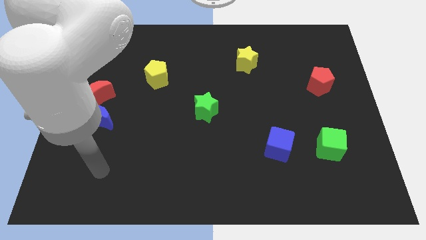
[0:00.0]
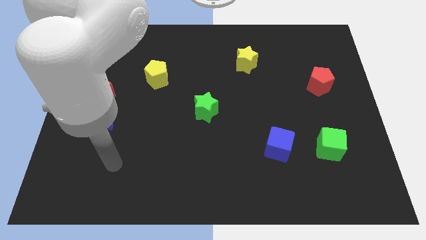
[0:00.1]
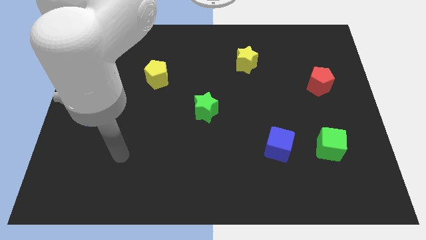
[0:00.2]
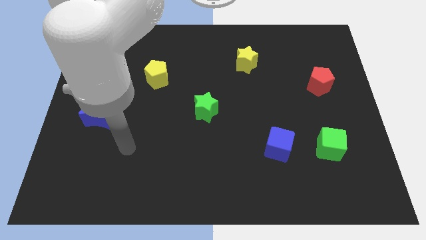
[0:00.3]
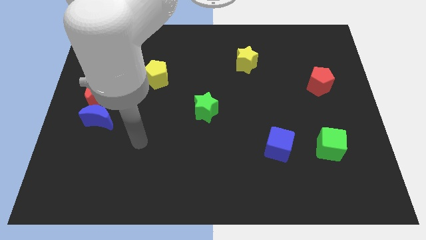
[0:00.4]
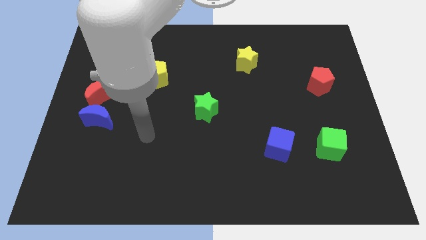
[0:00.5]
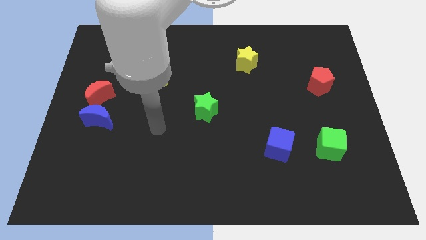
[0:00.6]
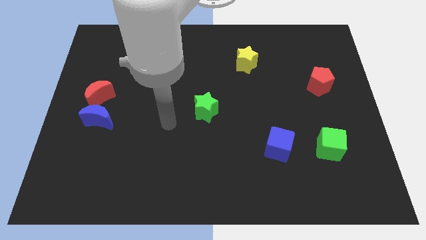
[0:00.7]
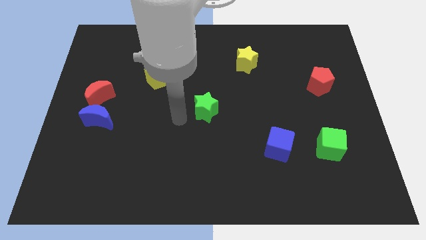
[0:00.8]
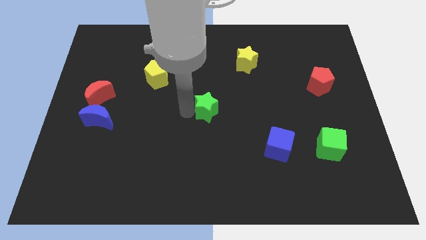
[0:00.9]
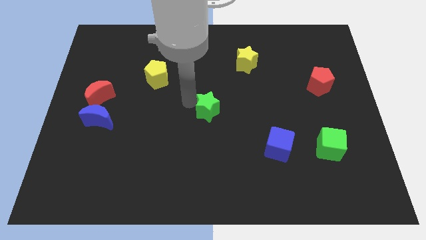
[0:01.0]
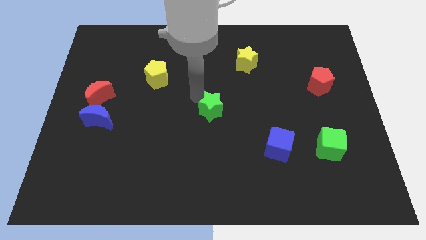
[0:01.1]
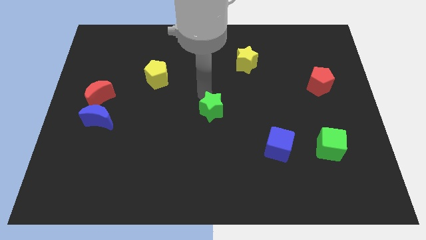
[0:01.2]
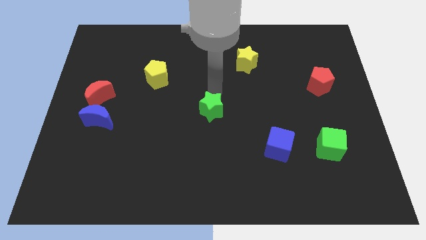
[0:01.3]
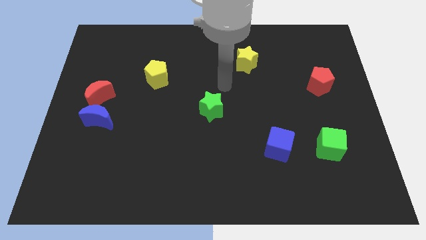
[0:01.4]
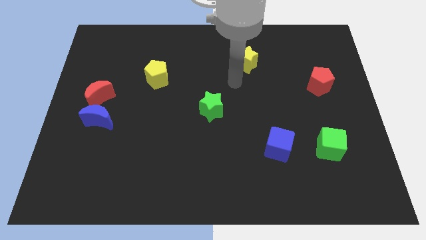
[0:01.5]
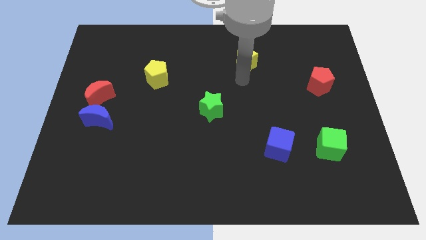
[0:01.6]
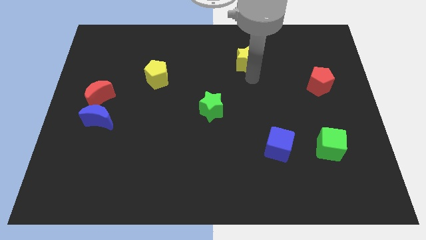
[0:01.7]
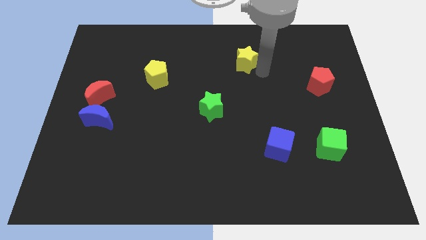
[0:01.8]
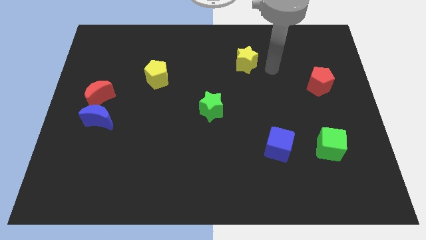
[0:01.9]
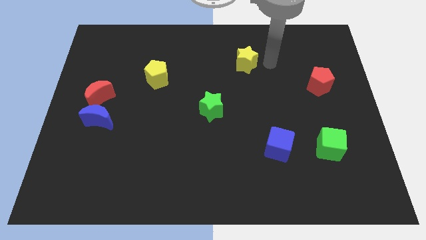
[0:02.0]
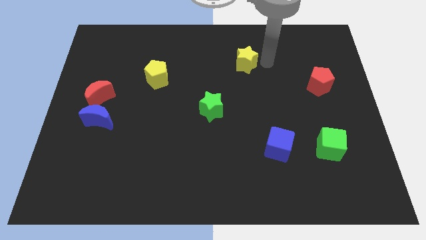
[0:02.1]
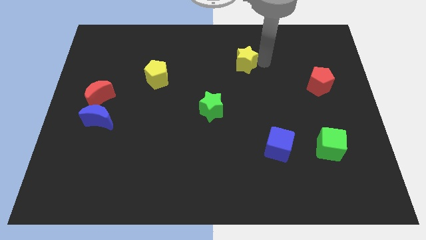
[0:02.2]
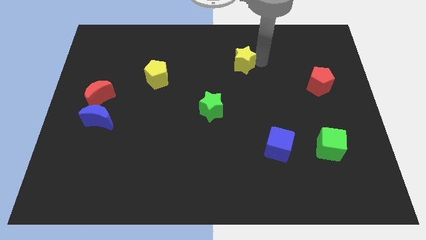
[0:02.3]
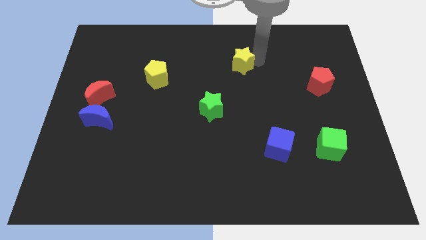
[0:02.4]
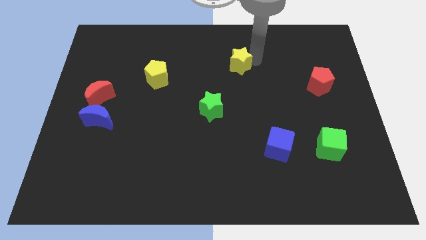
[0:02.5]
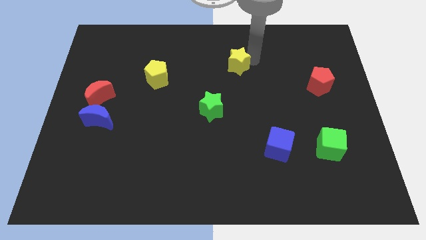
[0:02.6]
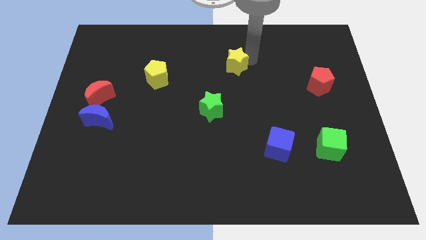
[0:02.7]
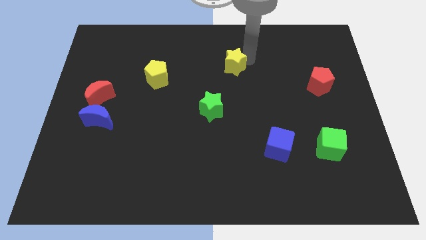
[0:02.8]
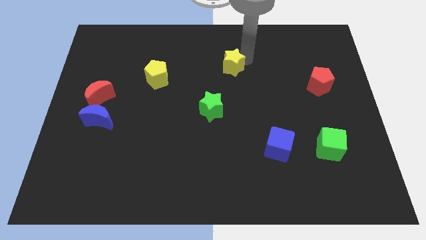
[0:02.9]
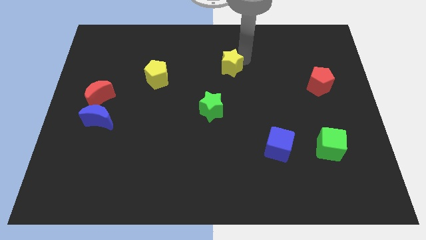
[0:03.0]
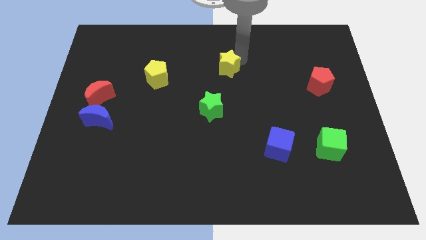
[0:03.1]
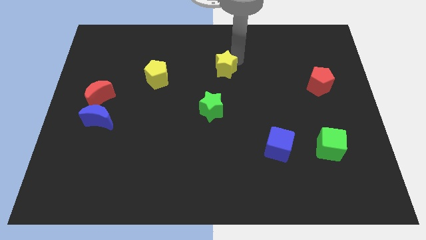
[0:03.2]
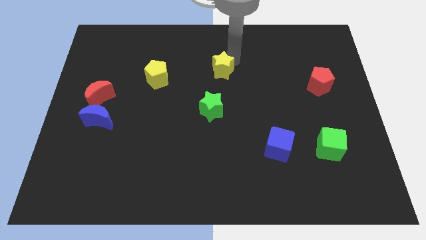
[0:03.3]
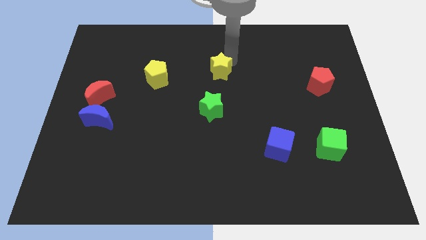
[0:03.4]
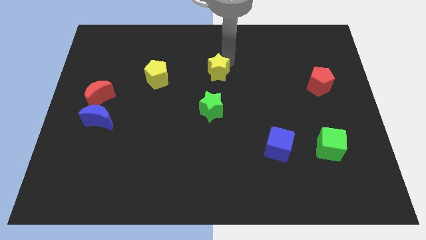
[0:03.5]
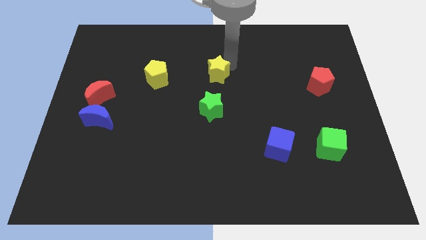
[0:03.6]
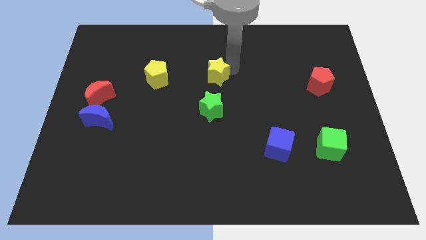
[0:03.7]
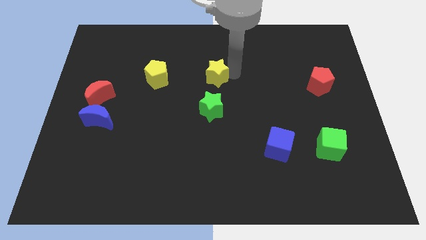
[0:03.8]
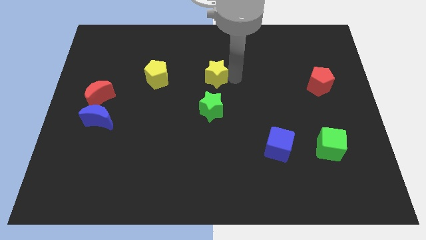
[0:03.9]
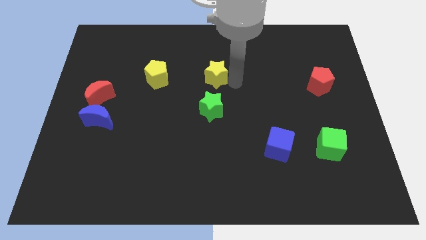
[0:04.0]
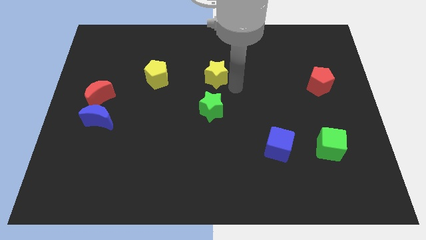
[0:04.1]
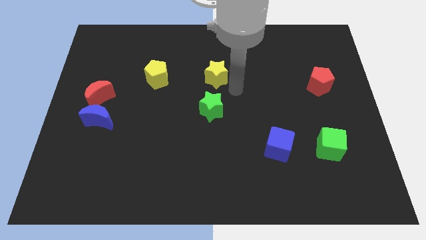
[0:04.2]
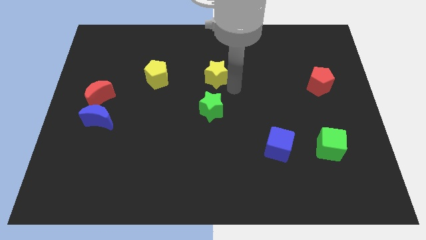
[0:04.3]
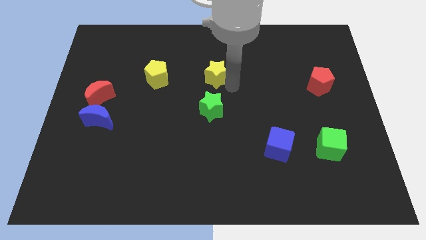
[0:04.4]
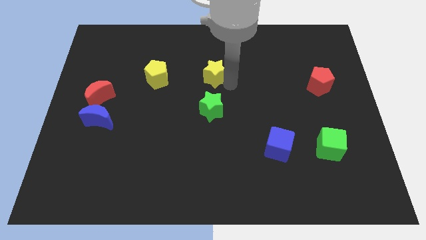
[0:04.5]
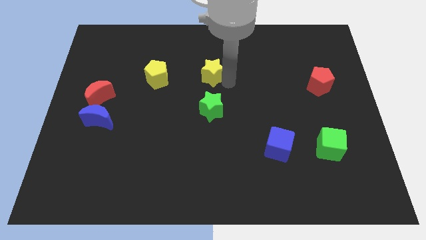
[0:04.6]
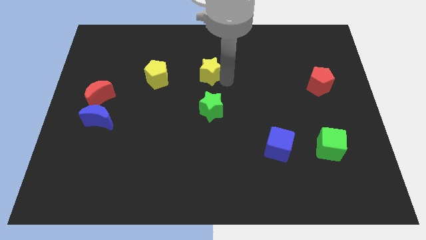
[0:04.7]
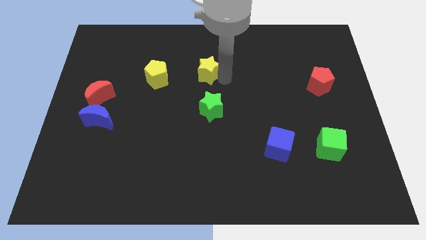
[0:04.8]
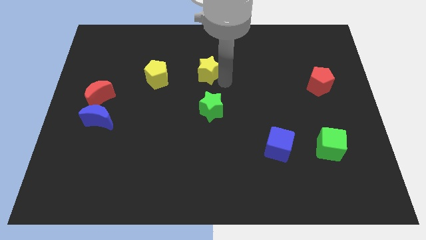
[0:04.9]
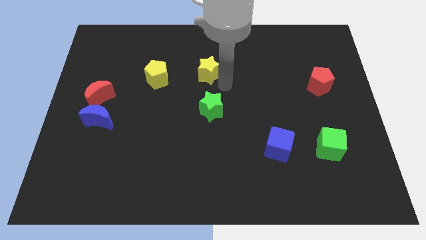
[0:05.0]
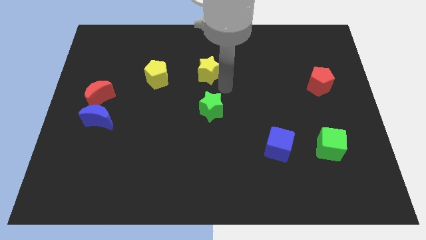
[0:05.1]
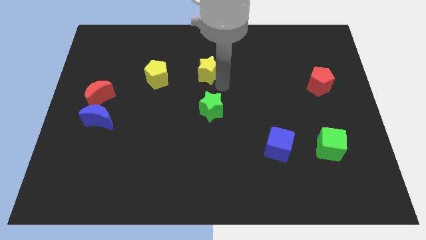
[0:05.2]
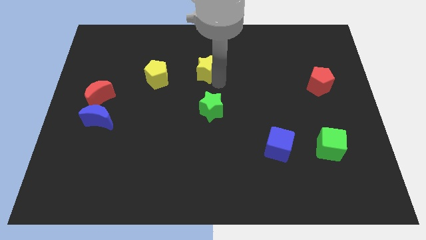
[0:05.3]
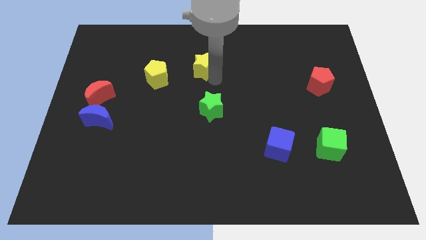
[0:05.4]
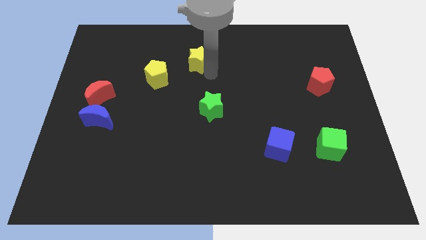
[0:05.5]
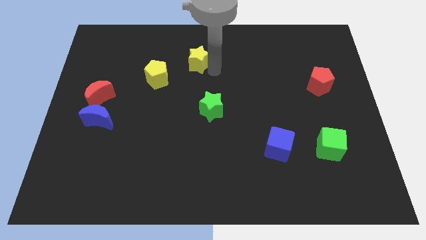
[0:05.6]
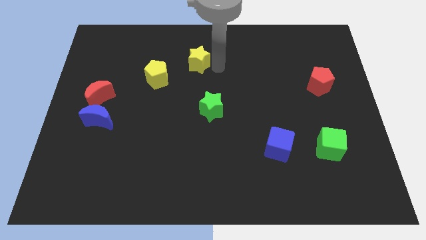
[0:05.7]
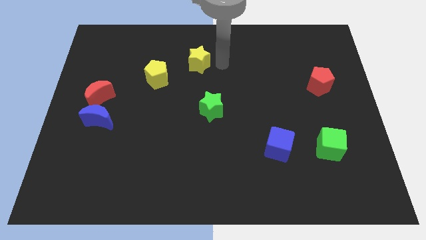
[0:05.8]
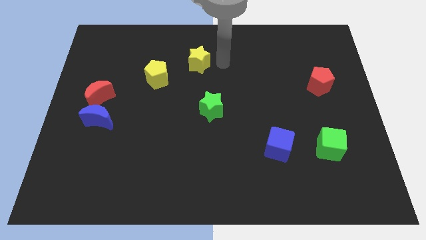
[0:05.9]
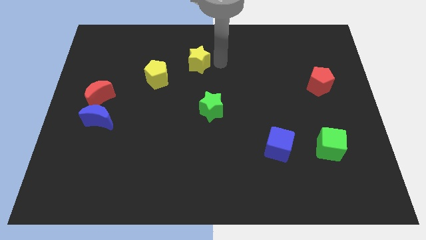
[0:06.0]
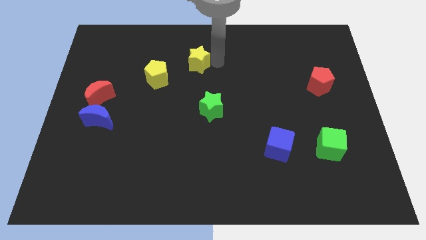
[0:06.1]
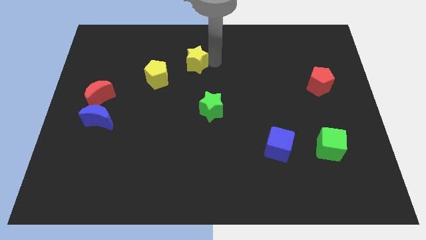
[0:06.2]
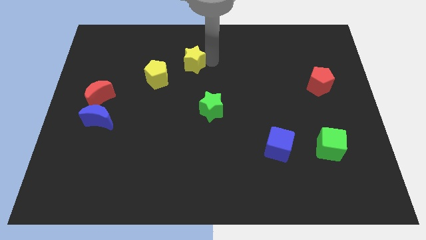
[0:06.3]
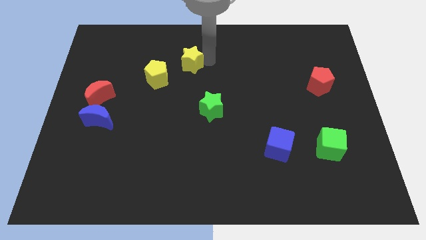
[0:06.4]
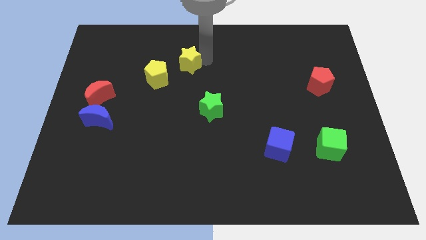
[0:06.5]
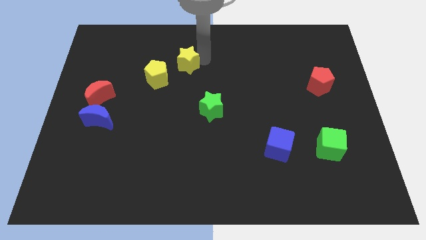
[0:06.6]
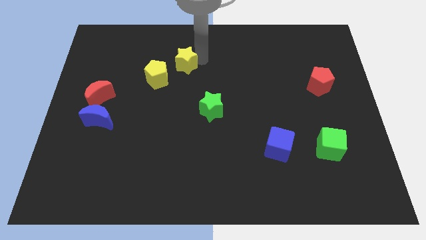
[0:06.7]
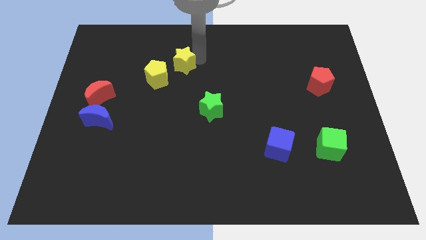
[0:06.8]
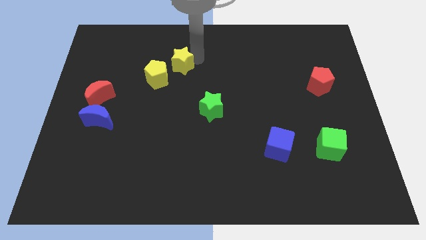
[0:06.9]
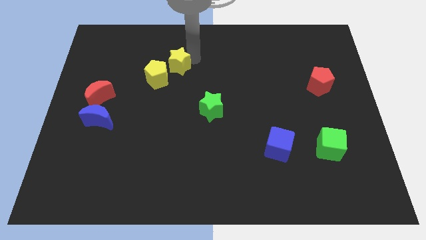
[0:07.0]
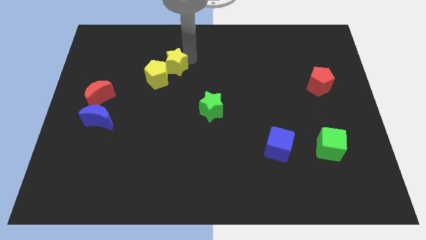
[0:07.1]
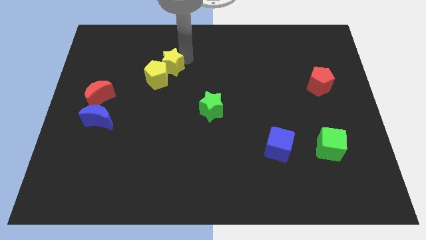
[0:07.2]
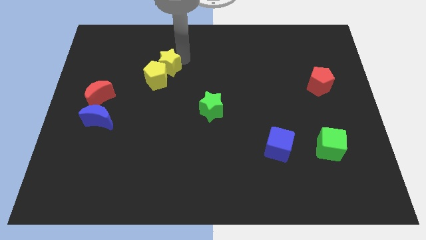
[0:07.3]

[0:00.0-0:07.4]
move the yellow star left

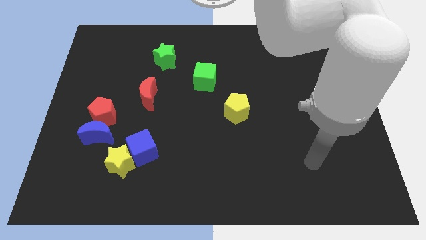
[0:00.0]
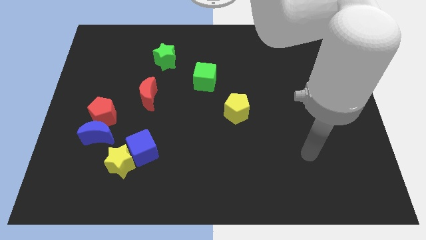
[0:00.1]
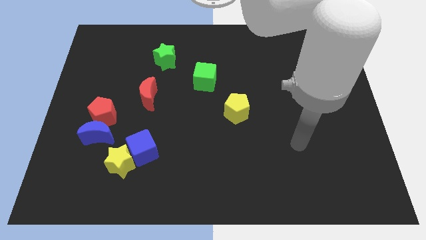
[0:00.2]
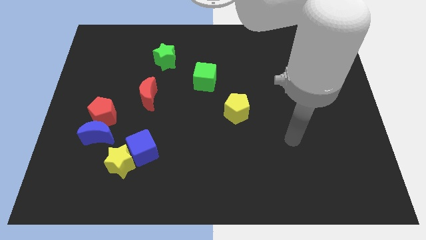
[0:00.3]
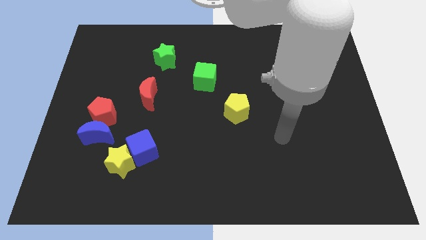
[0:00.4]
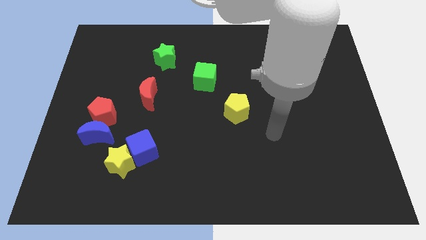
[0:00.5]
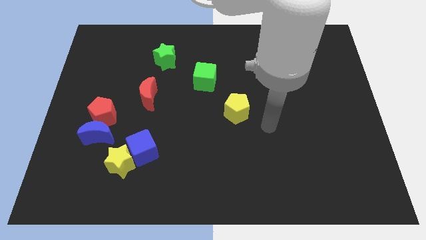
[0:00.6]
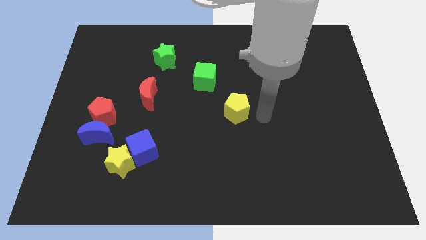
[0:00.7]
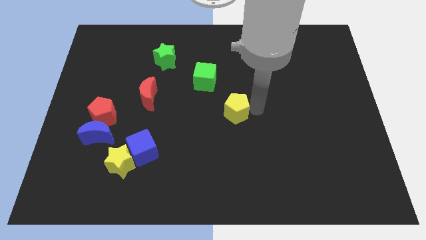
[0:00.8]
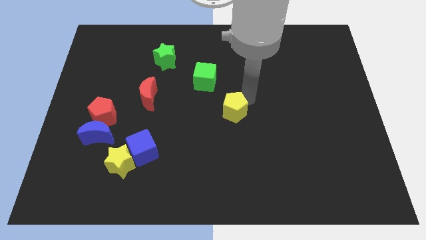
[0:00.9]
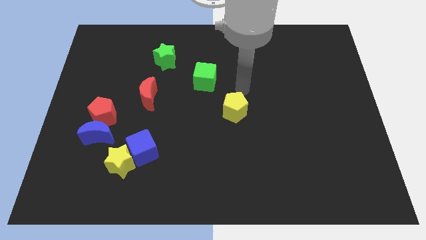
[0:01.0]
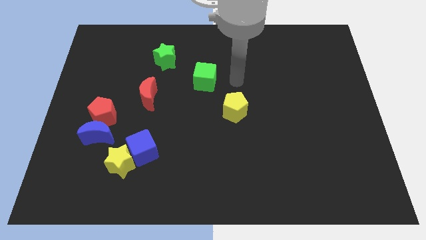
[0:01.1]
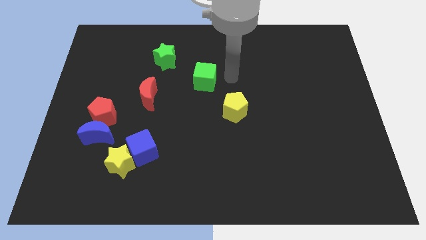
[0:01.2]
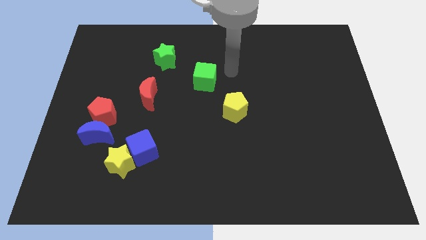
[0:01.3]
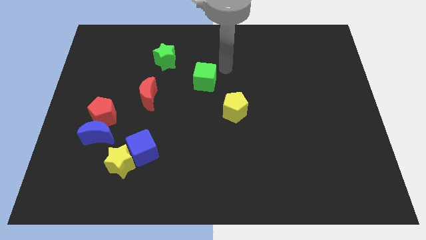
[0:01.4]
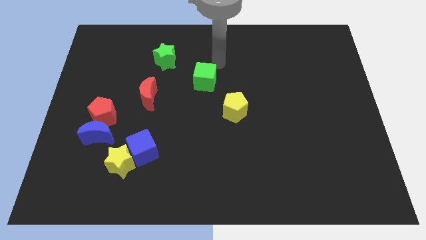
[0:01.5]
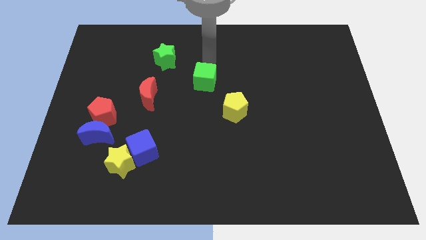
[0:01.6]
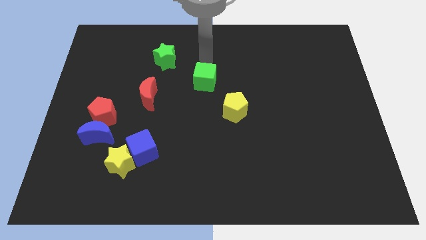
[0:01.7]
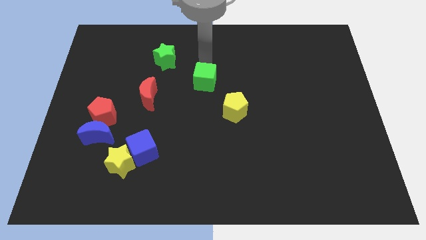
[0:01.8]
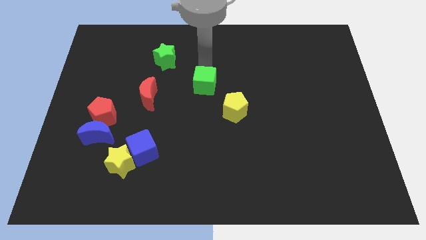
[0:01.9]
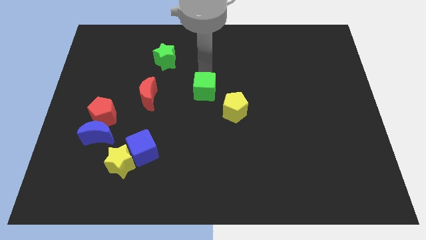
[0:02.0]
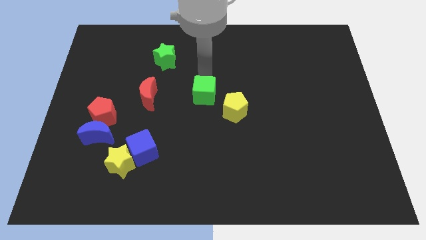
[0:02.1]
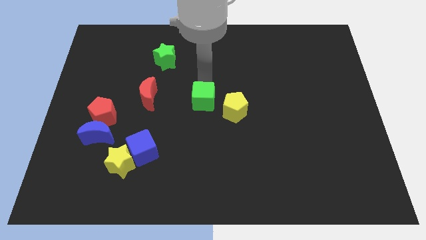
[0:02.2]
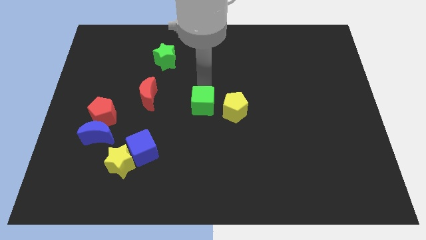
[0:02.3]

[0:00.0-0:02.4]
push the green cube down a little bit
